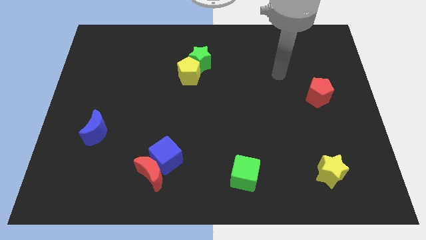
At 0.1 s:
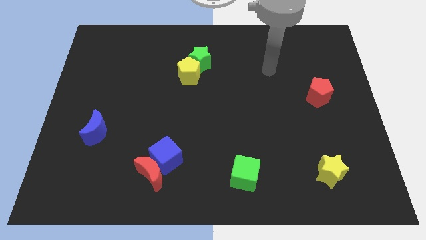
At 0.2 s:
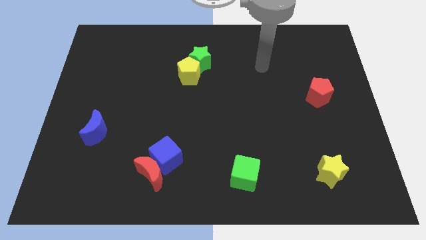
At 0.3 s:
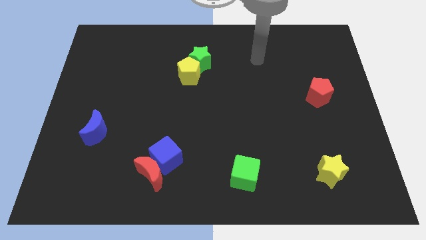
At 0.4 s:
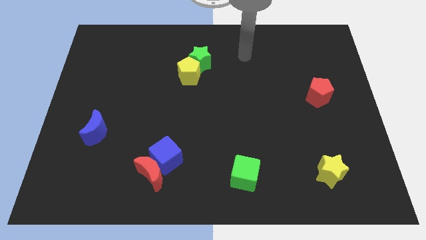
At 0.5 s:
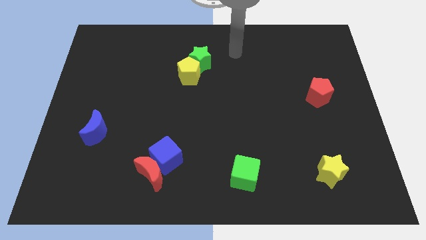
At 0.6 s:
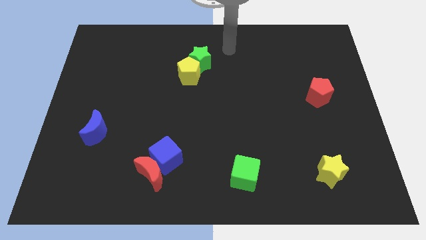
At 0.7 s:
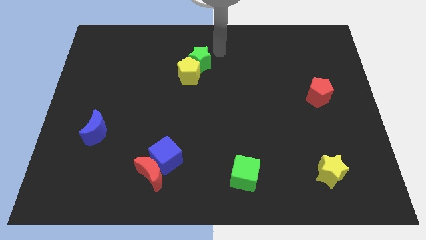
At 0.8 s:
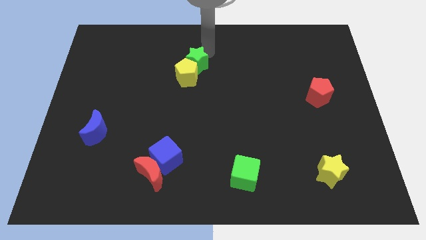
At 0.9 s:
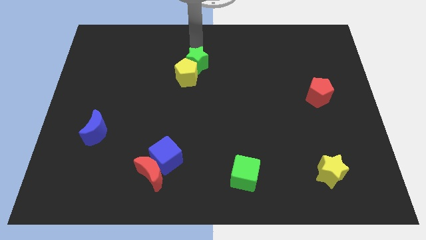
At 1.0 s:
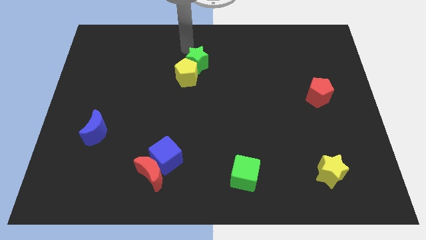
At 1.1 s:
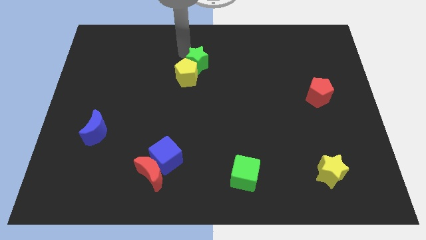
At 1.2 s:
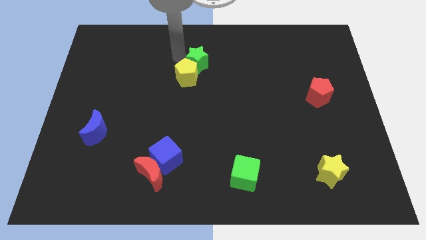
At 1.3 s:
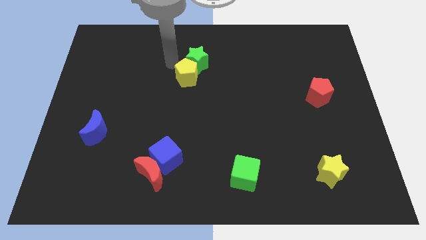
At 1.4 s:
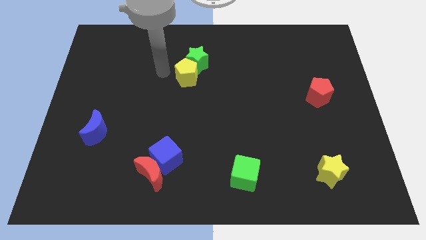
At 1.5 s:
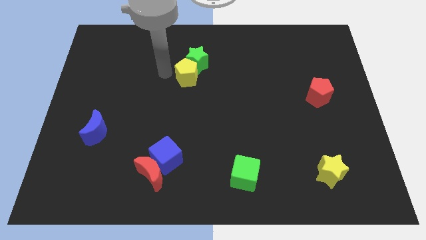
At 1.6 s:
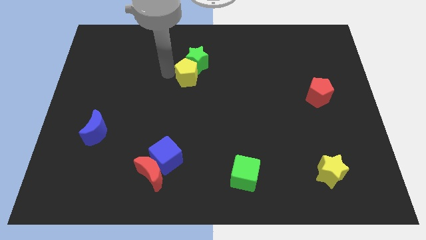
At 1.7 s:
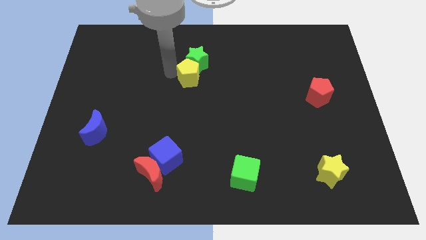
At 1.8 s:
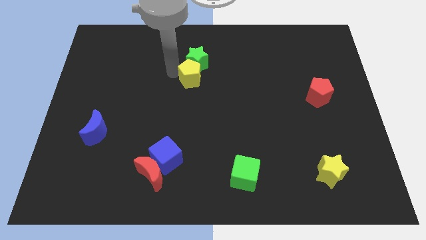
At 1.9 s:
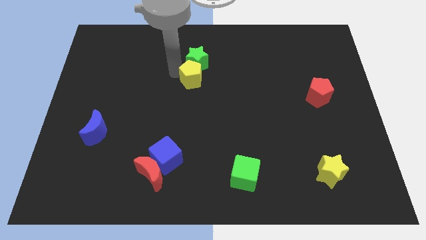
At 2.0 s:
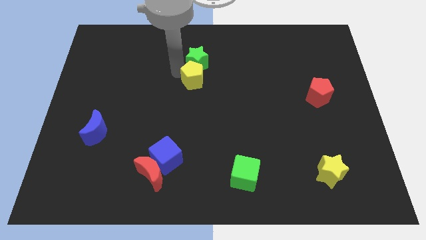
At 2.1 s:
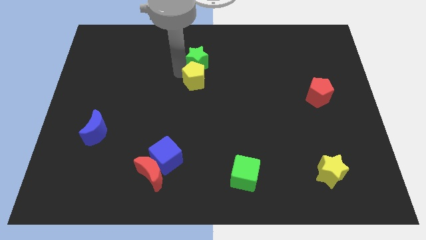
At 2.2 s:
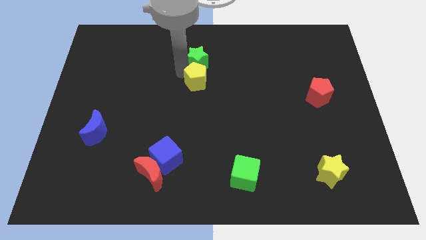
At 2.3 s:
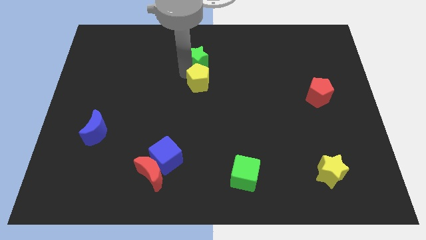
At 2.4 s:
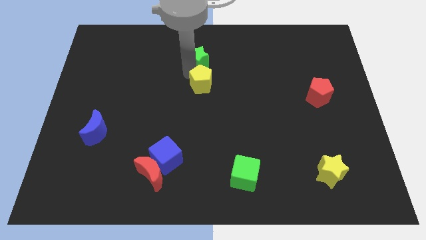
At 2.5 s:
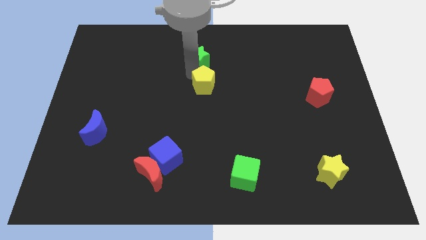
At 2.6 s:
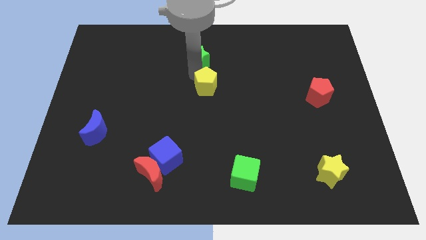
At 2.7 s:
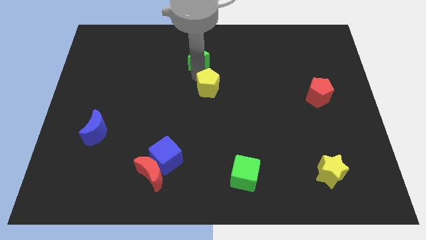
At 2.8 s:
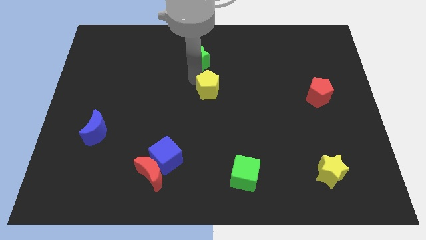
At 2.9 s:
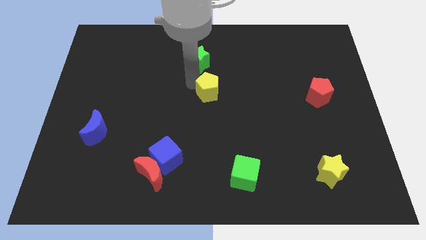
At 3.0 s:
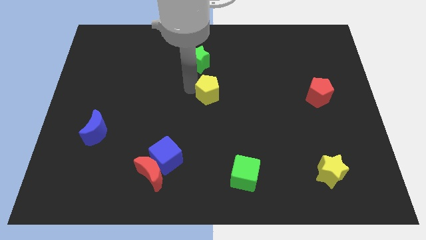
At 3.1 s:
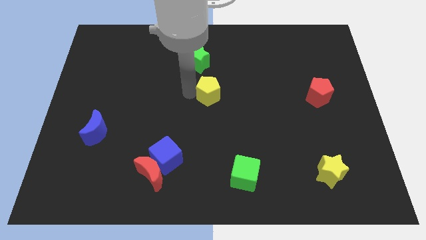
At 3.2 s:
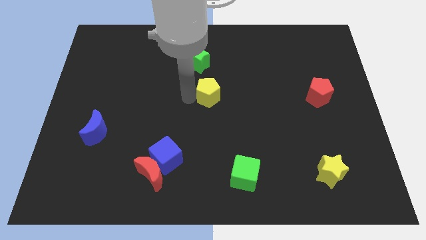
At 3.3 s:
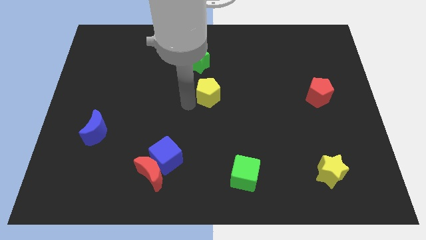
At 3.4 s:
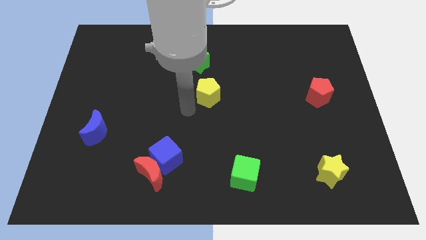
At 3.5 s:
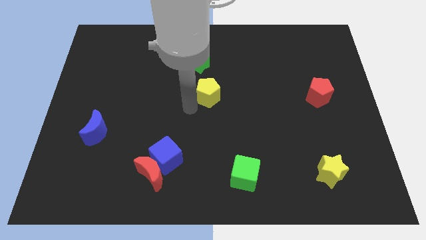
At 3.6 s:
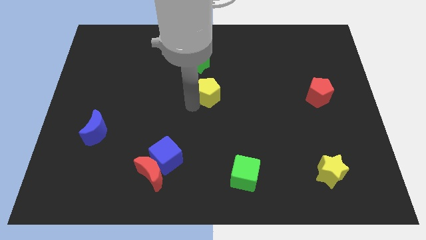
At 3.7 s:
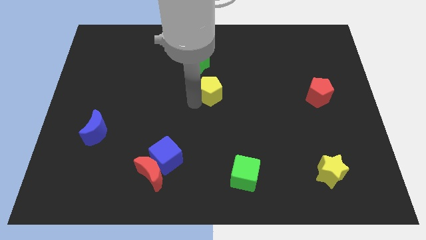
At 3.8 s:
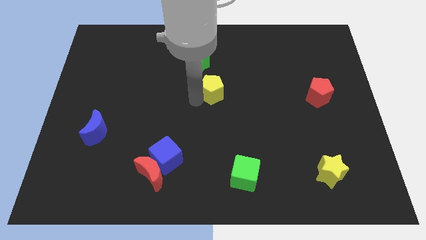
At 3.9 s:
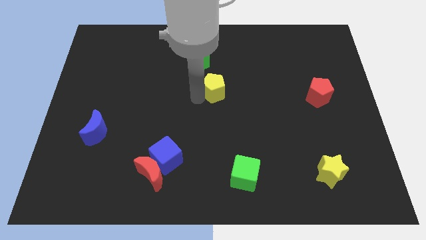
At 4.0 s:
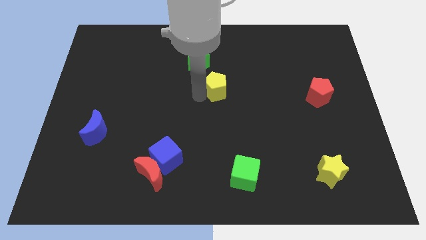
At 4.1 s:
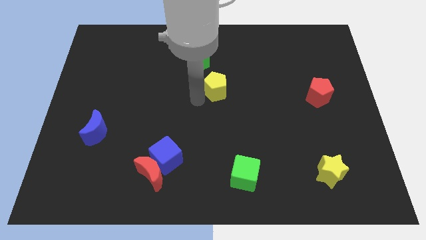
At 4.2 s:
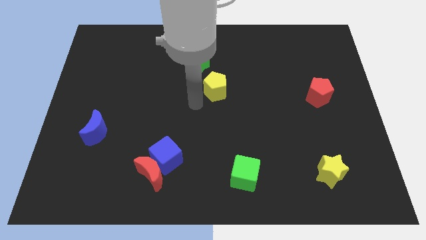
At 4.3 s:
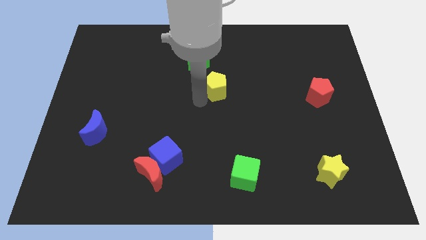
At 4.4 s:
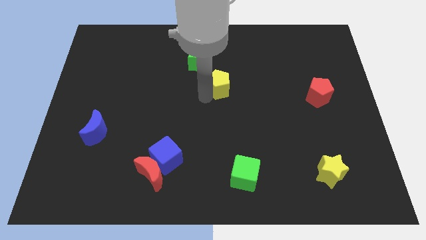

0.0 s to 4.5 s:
slightly push the yellow pentagon right

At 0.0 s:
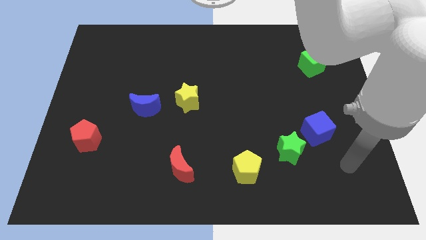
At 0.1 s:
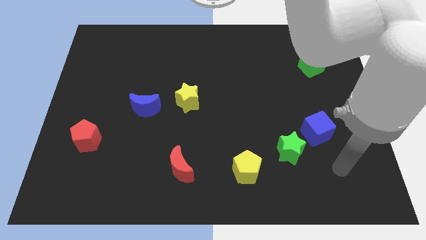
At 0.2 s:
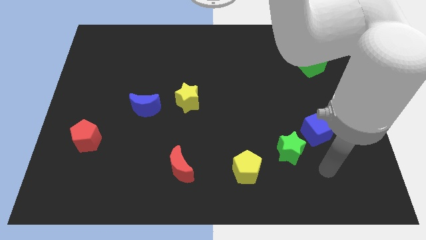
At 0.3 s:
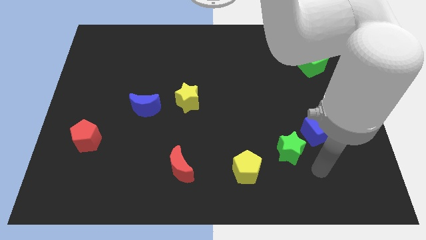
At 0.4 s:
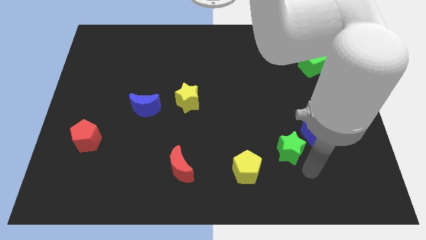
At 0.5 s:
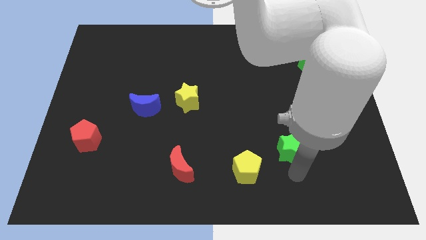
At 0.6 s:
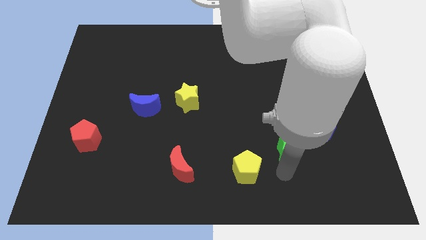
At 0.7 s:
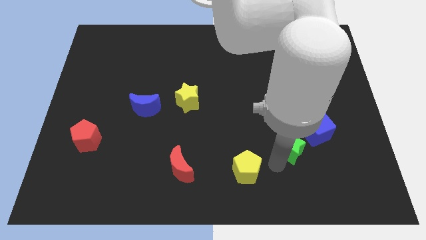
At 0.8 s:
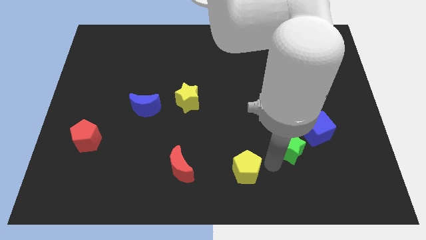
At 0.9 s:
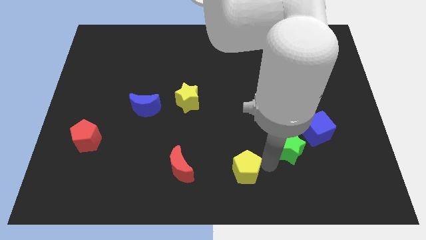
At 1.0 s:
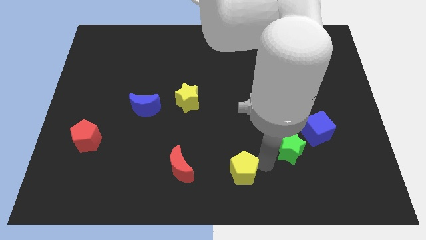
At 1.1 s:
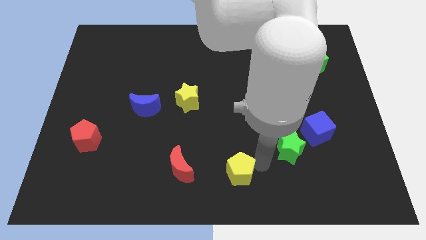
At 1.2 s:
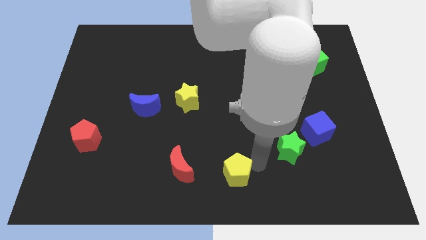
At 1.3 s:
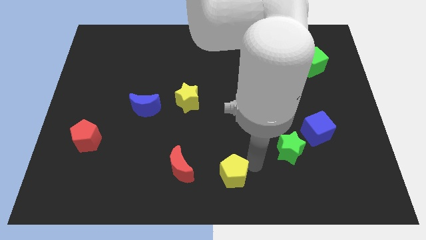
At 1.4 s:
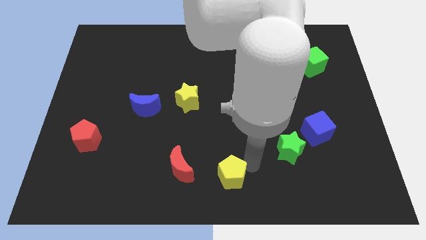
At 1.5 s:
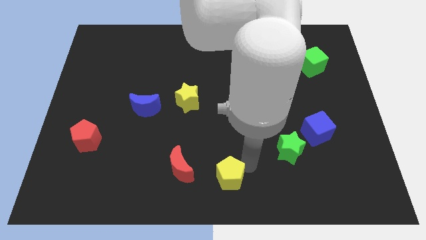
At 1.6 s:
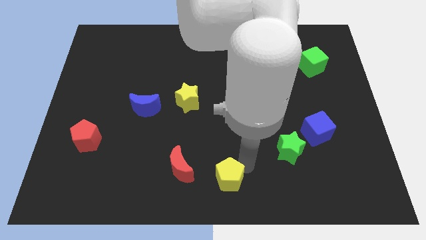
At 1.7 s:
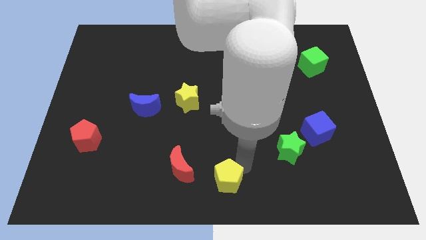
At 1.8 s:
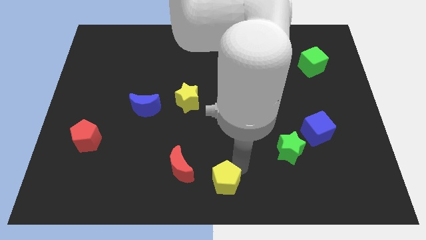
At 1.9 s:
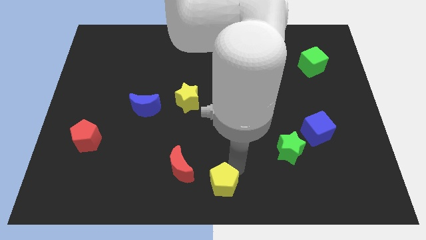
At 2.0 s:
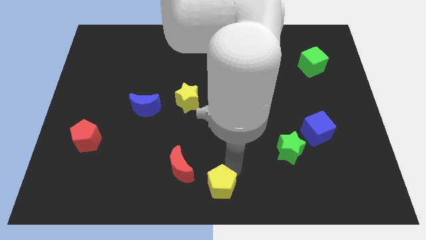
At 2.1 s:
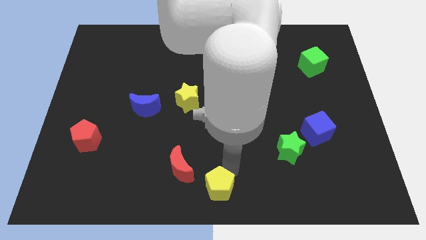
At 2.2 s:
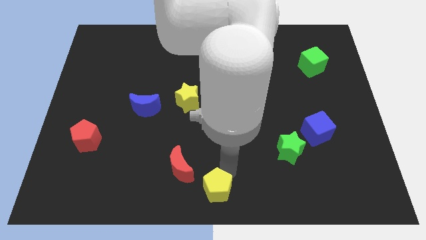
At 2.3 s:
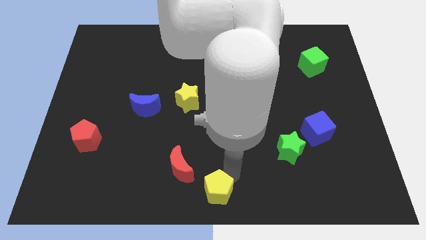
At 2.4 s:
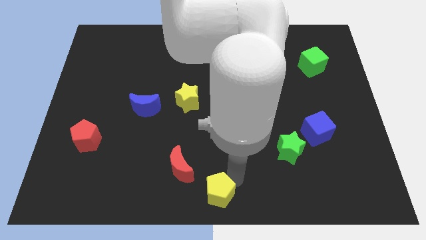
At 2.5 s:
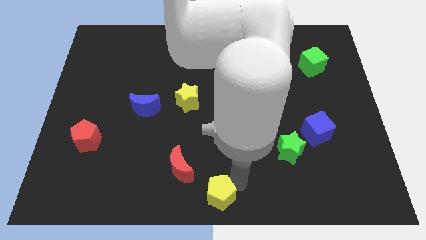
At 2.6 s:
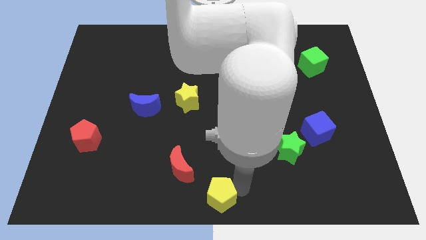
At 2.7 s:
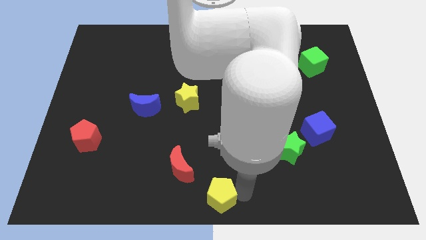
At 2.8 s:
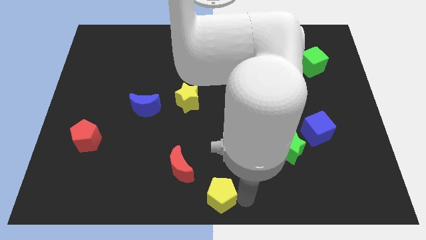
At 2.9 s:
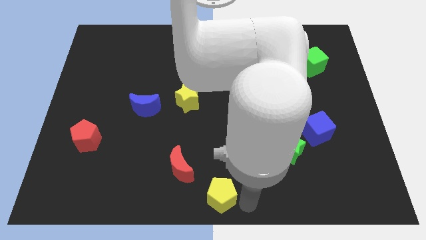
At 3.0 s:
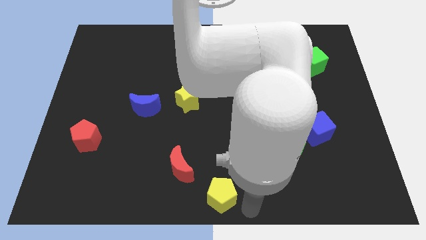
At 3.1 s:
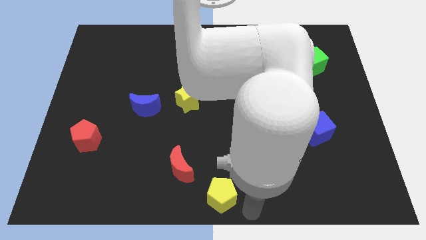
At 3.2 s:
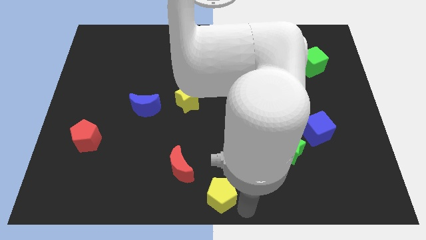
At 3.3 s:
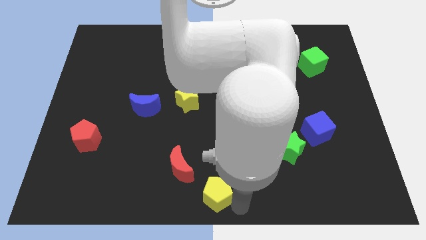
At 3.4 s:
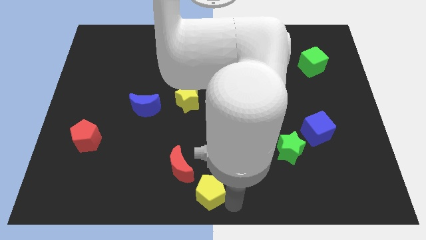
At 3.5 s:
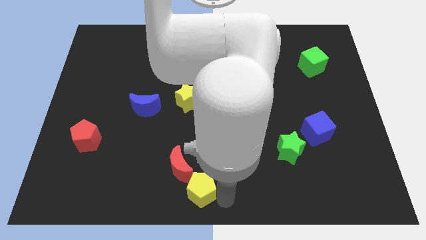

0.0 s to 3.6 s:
slightly move the yellow pentagon to the left
